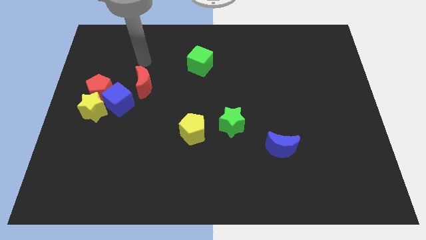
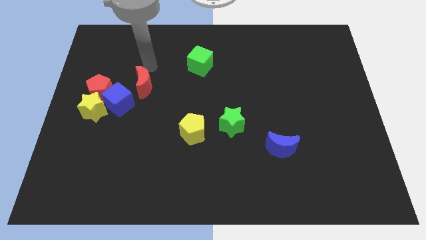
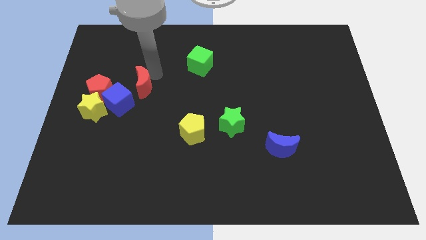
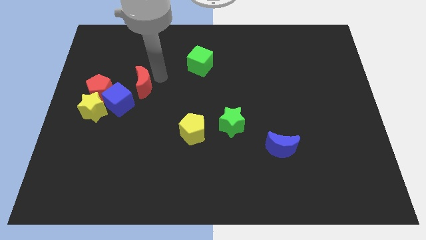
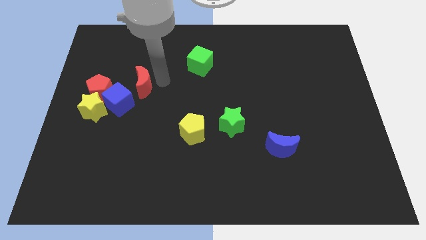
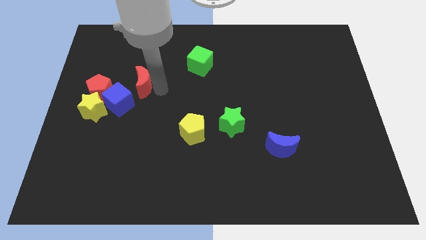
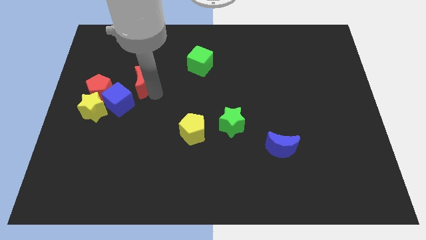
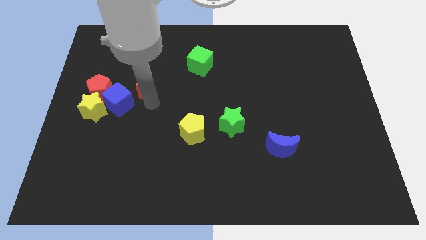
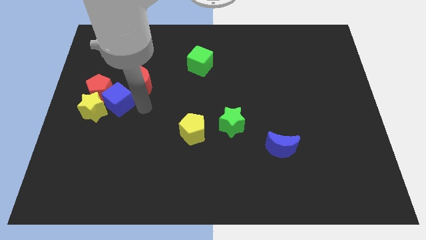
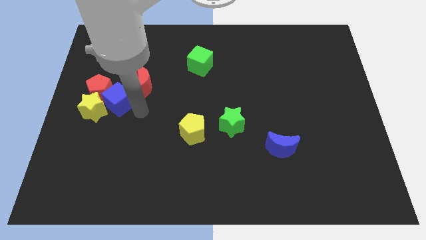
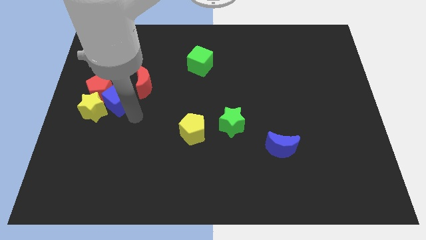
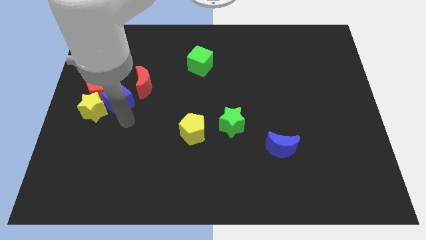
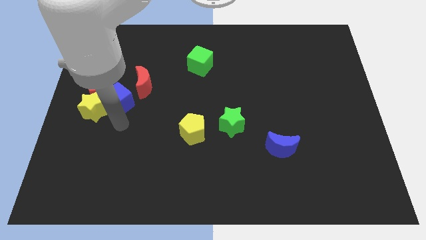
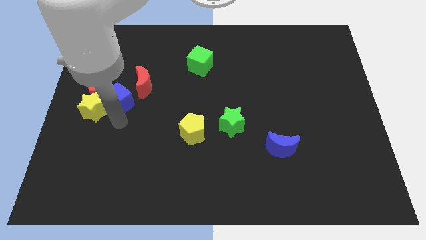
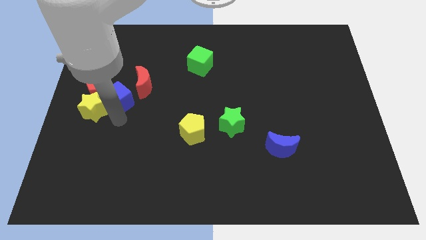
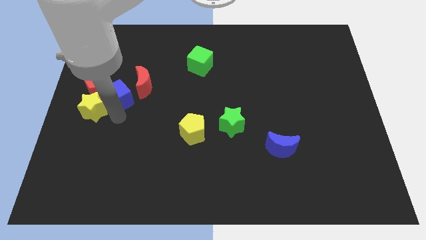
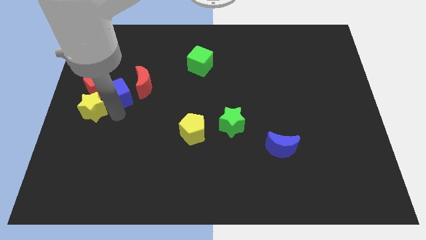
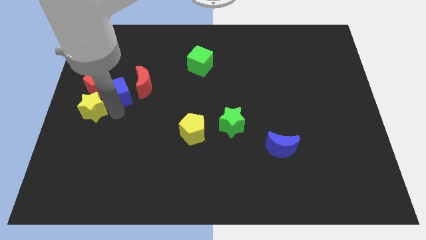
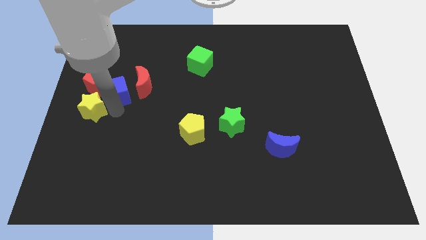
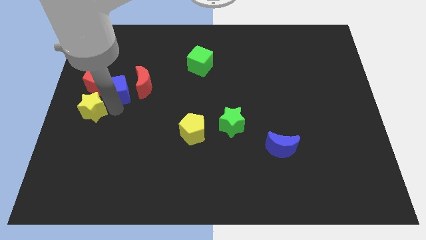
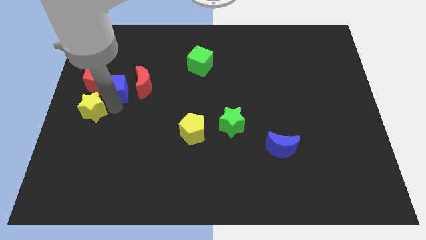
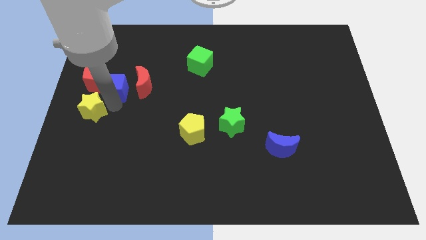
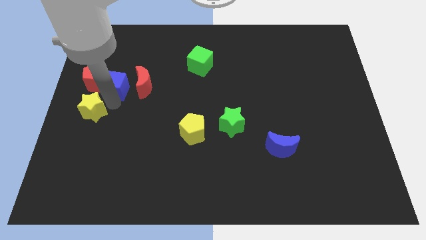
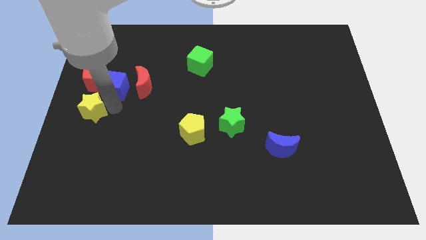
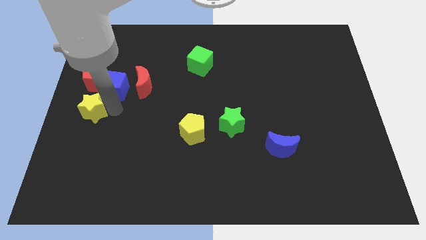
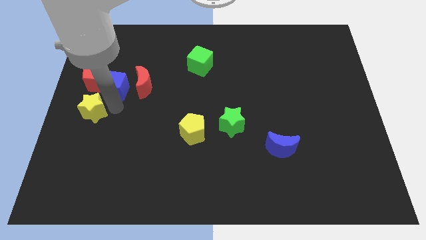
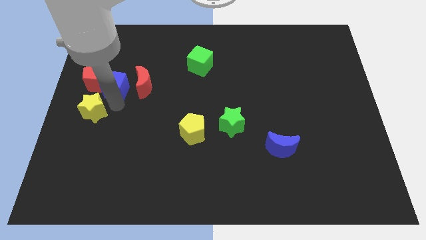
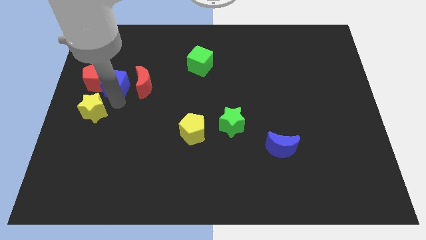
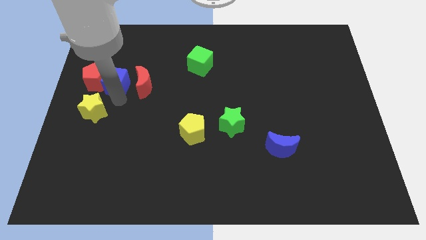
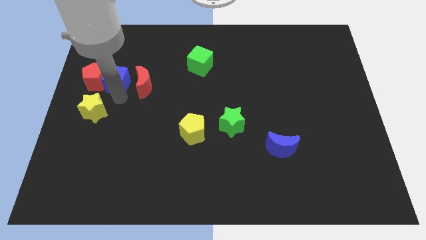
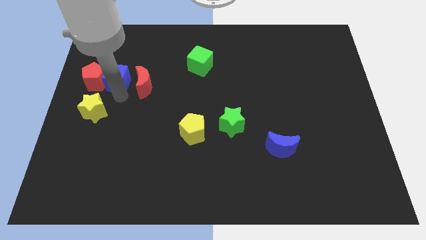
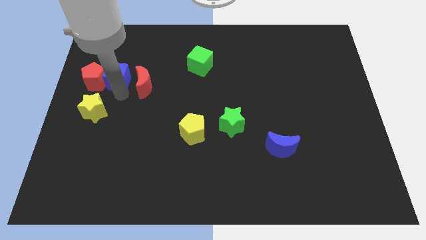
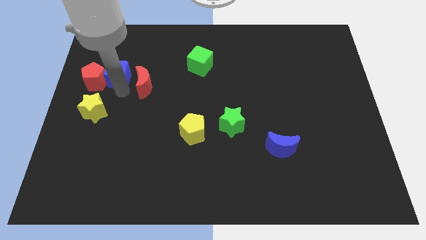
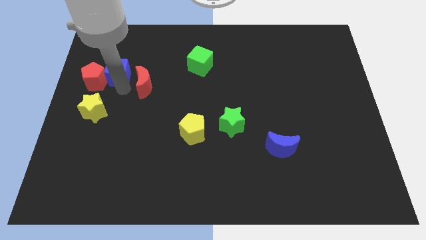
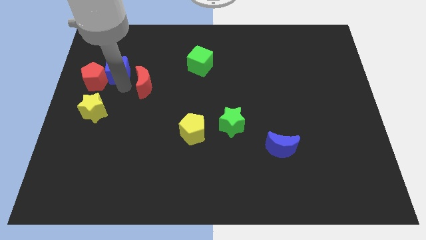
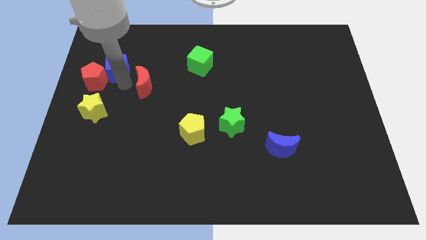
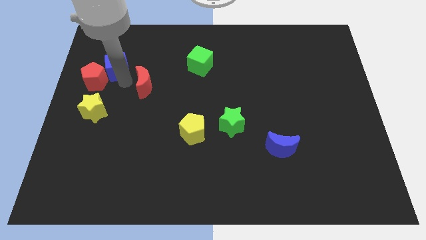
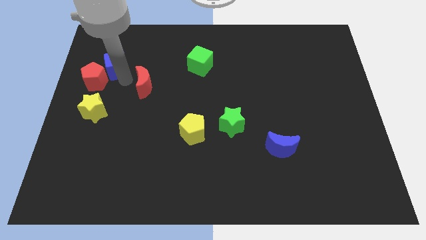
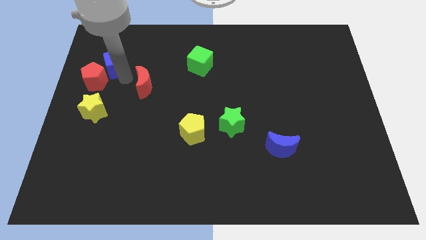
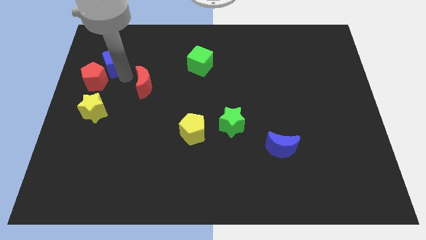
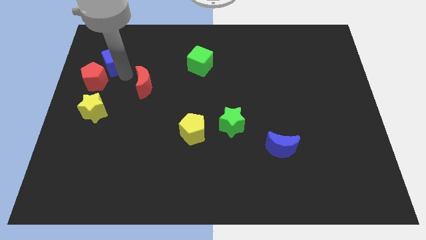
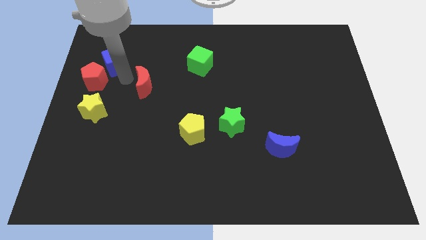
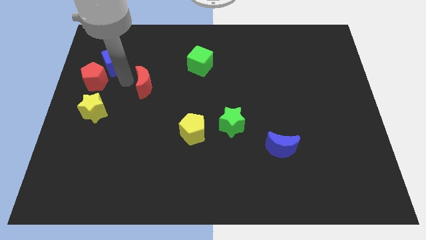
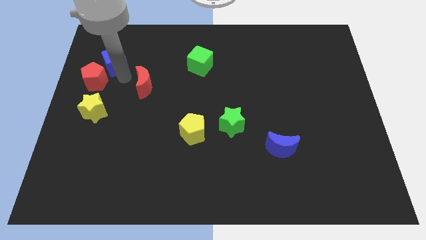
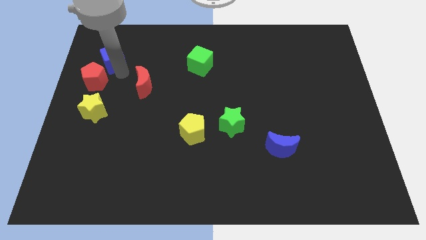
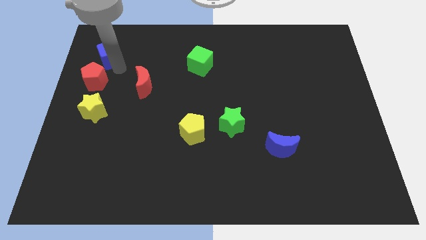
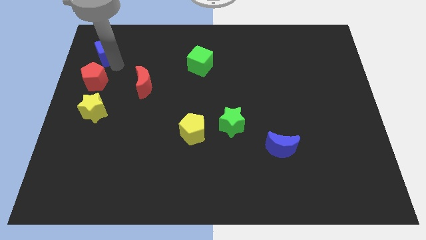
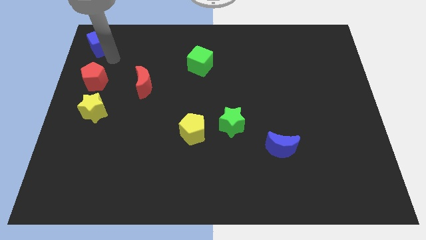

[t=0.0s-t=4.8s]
put the blue cube to the upper left corner

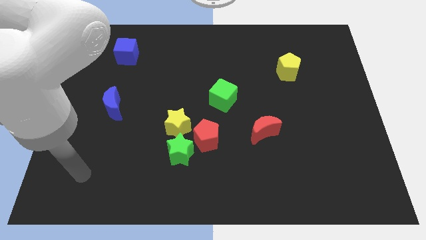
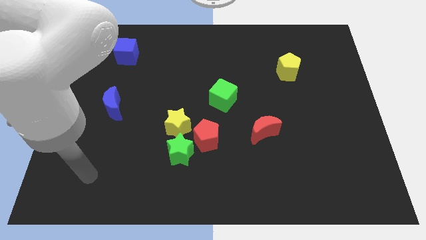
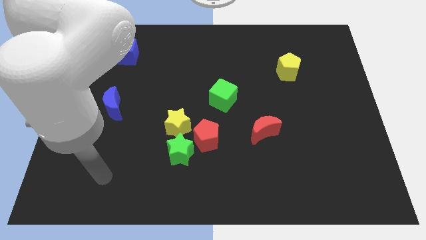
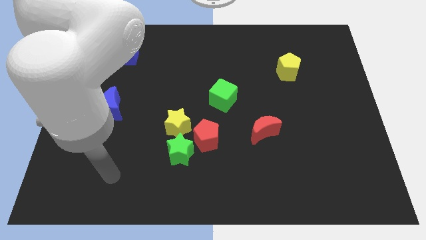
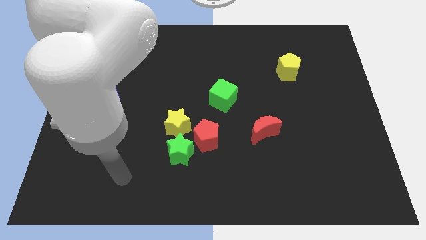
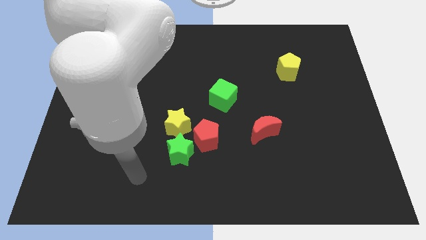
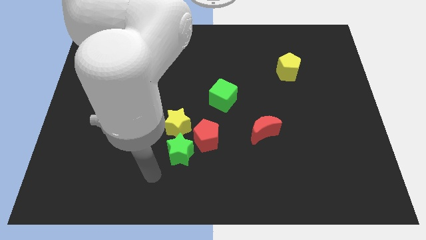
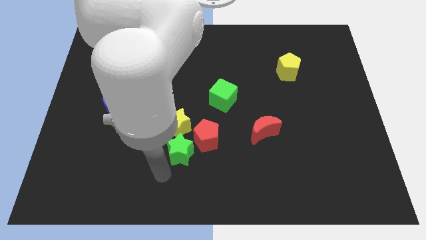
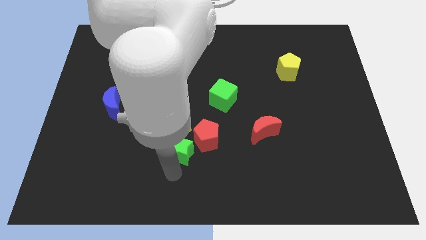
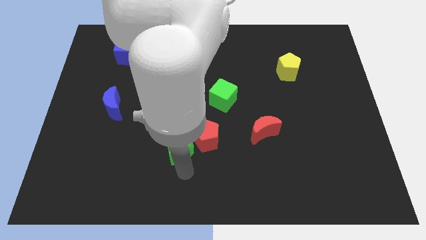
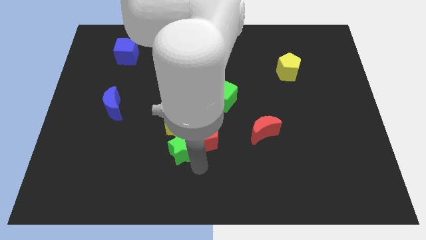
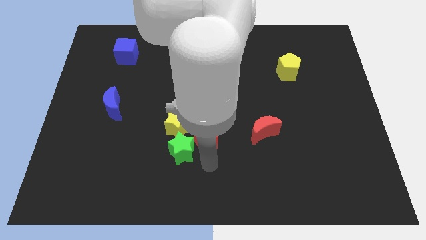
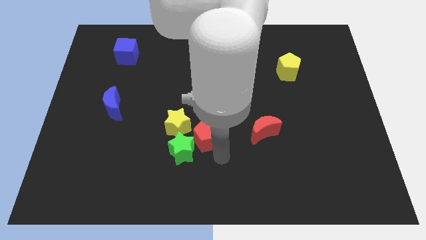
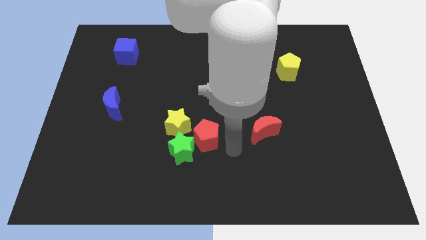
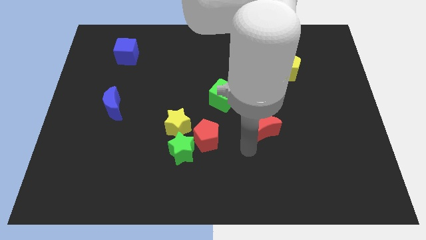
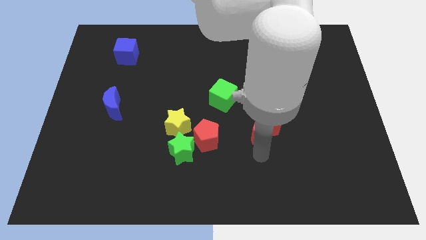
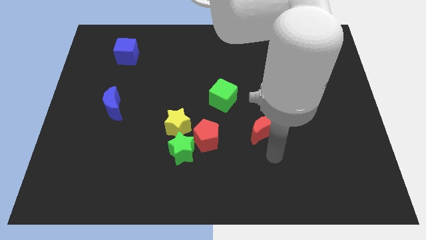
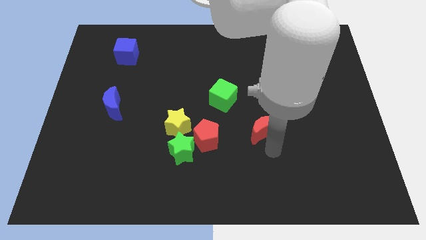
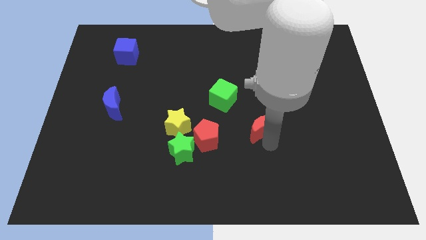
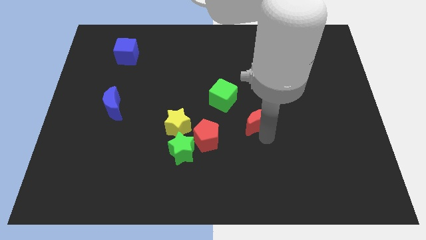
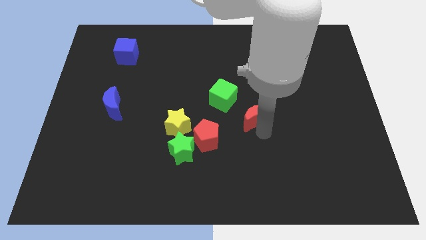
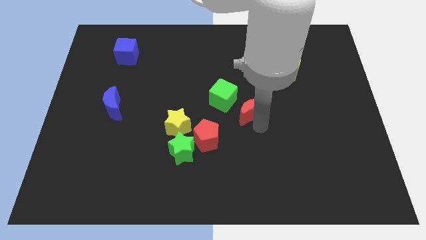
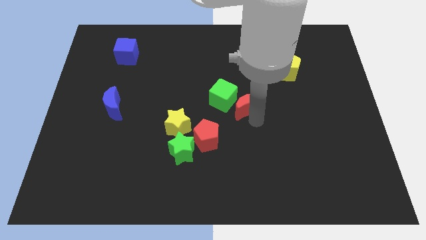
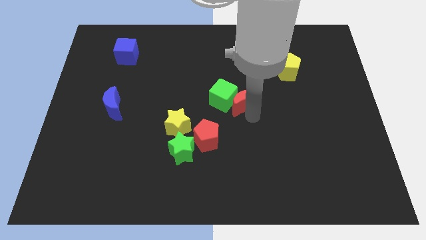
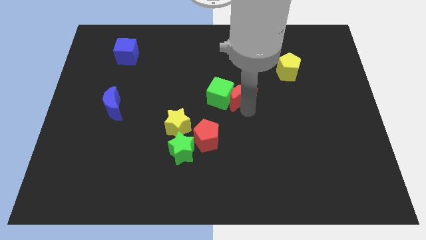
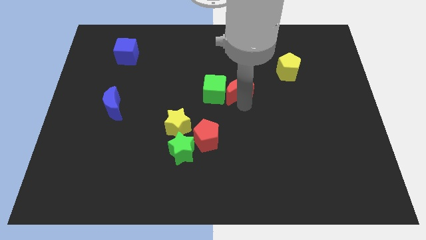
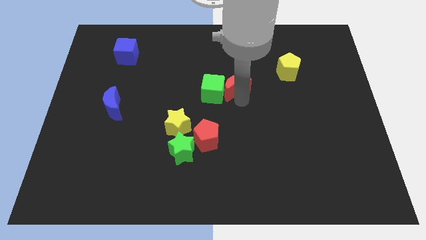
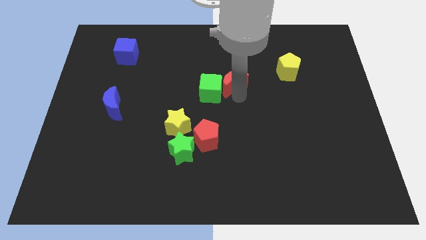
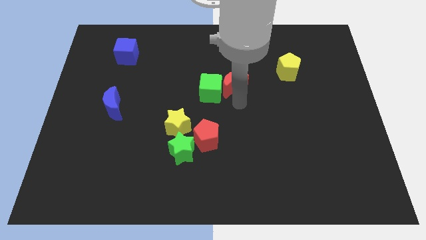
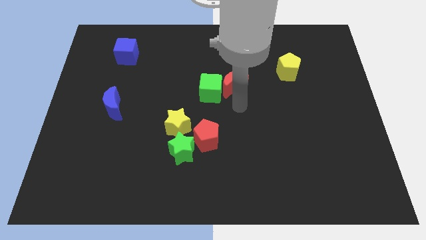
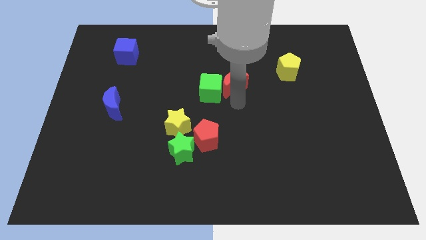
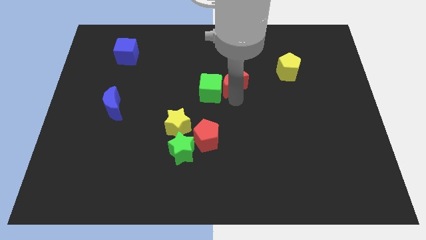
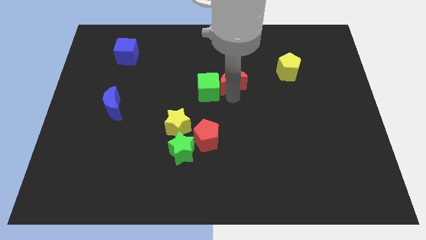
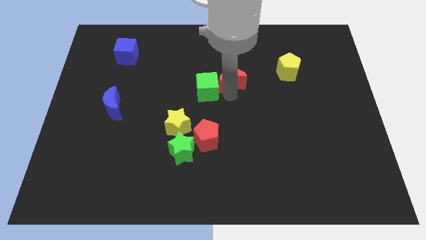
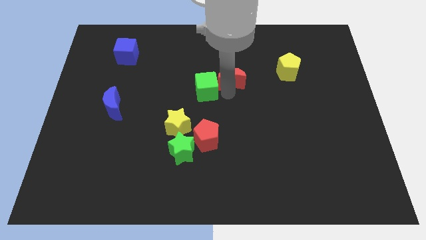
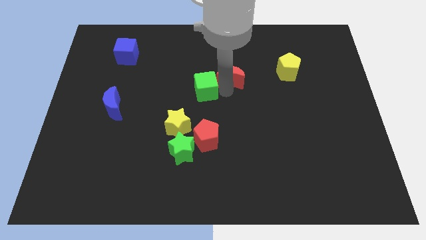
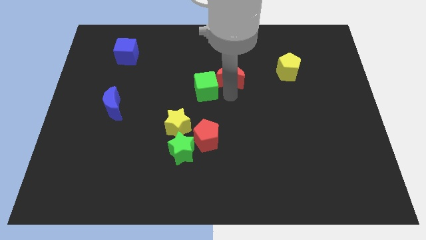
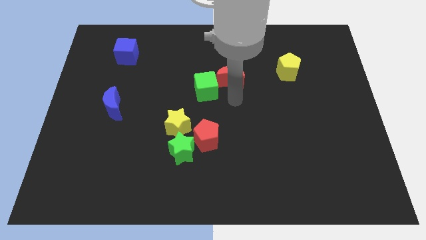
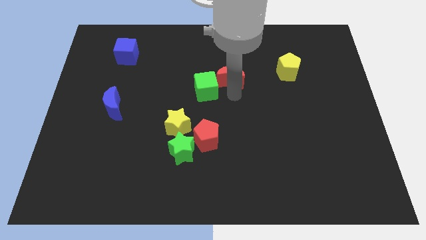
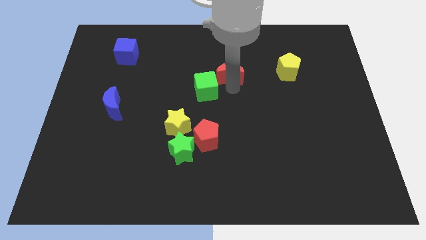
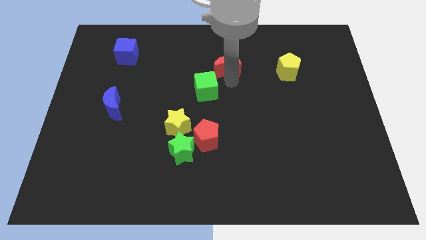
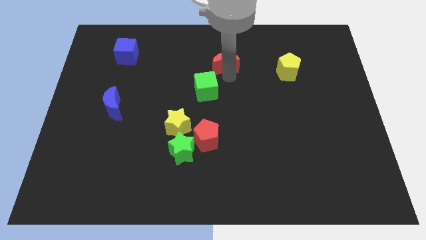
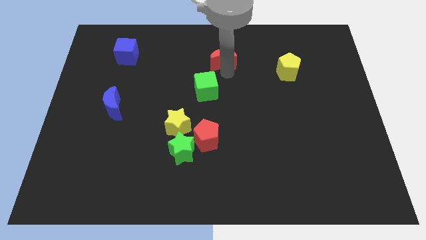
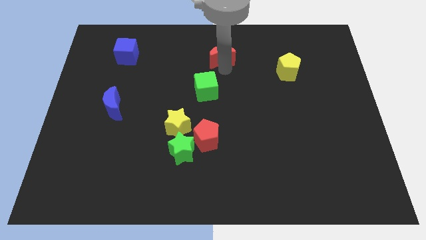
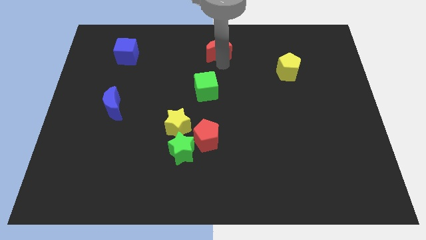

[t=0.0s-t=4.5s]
slide the red moon to the top side
